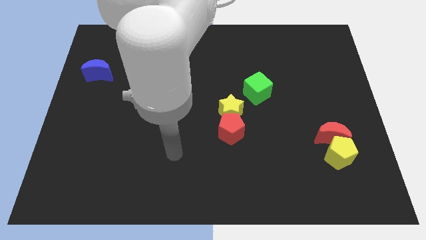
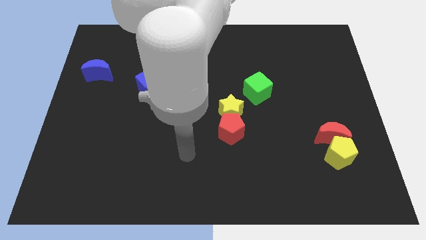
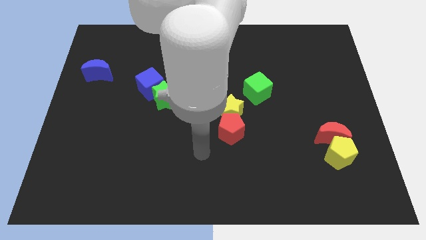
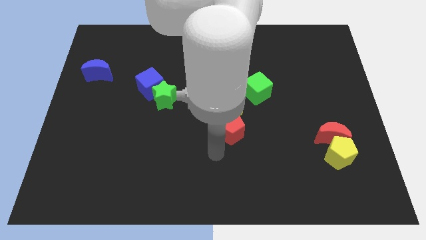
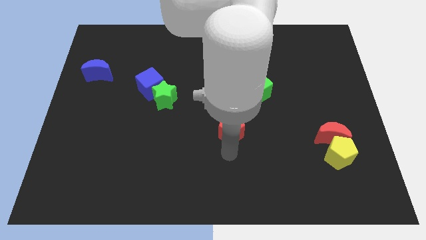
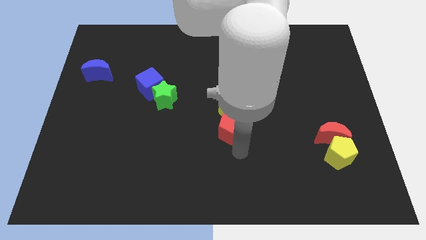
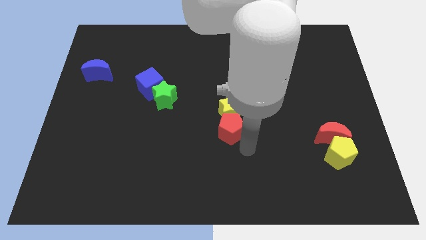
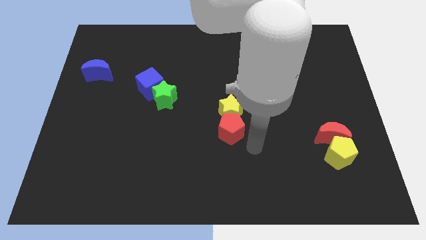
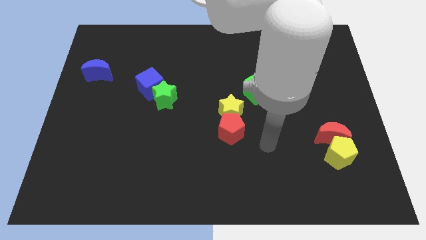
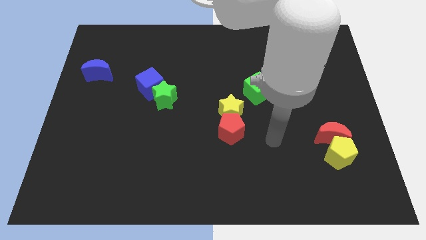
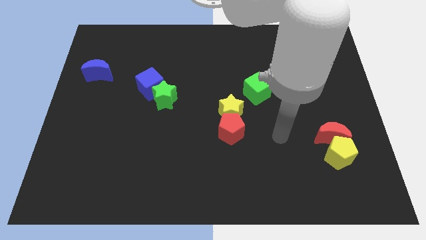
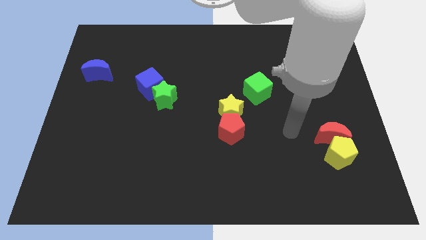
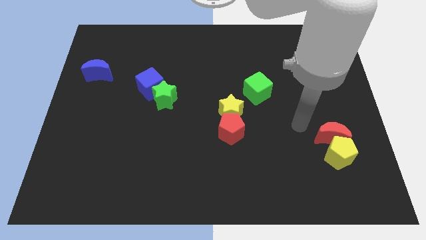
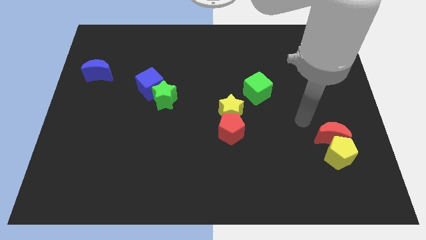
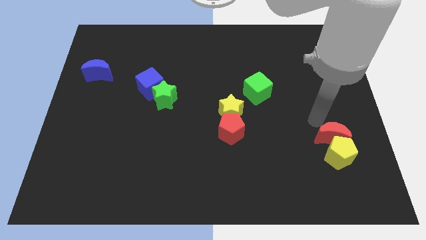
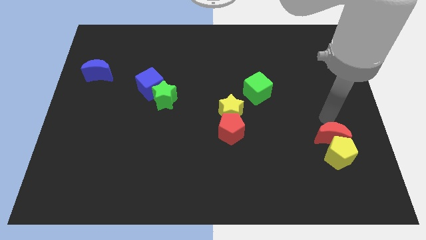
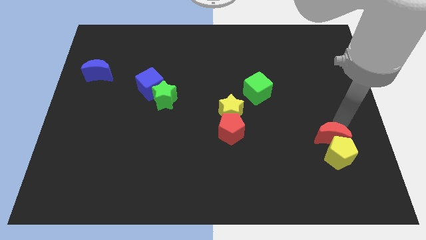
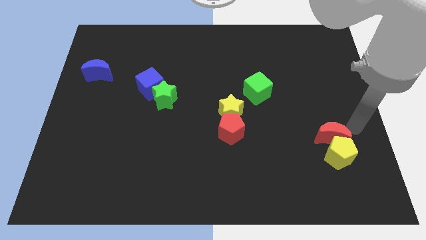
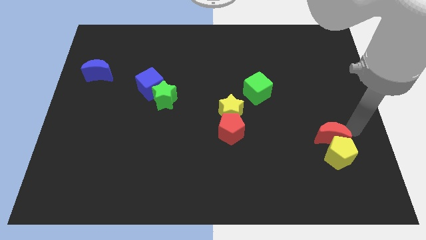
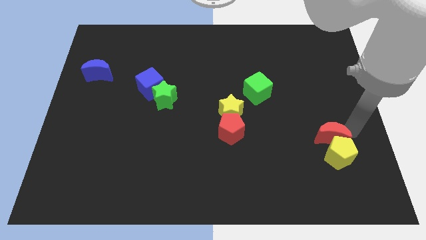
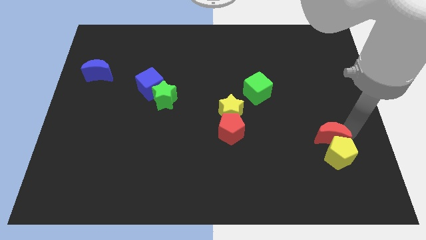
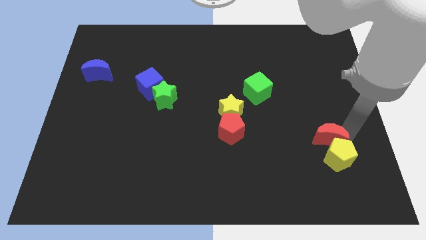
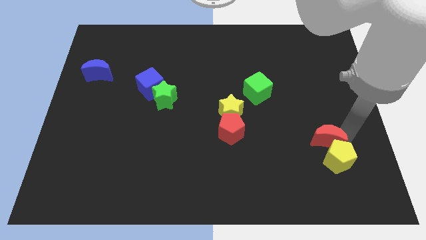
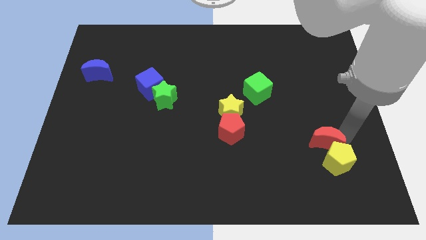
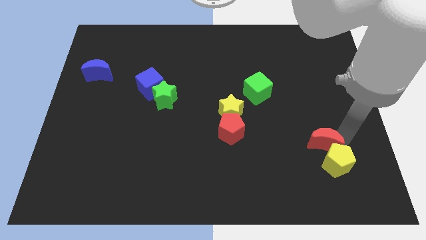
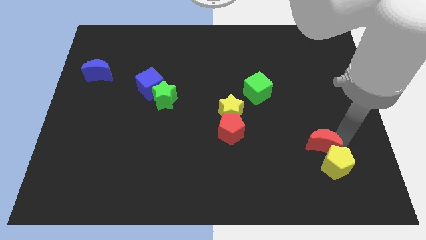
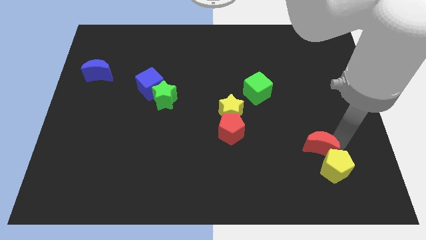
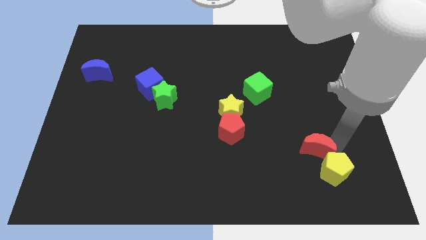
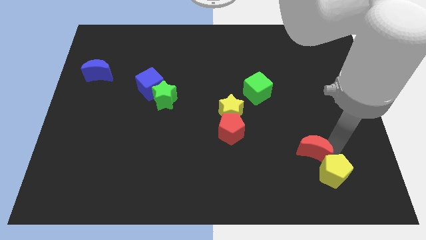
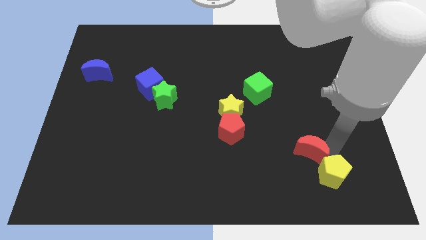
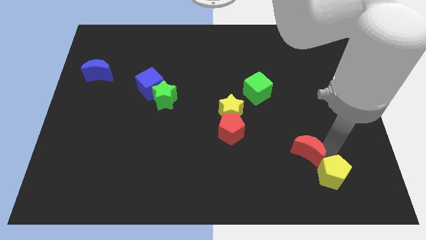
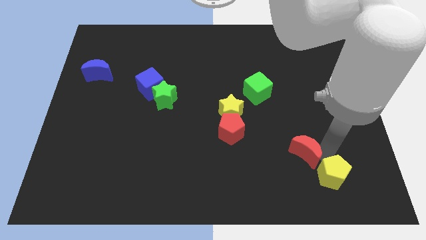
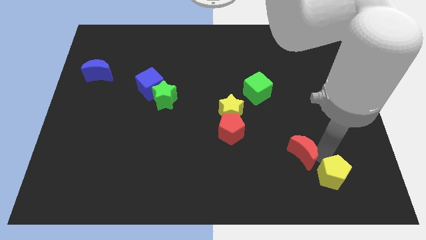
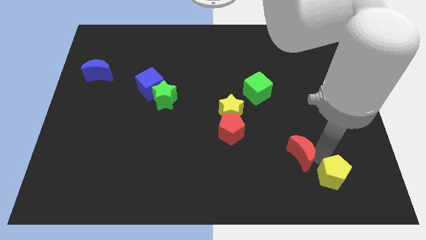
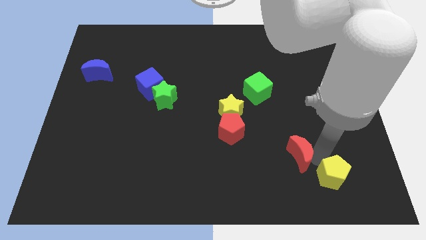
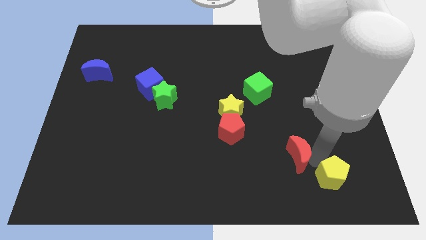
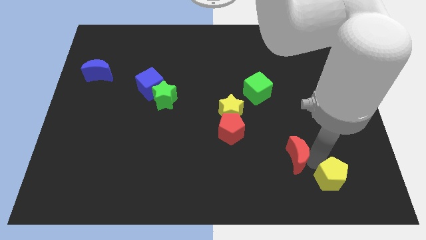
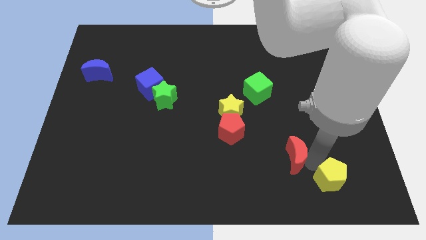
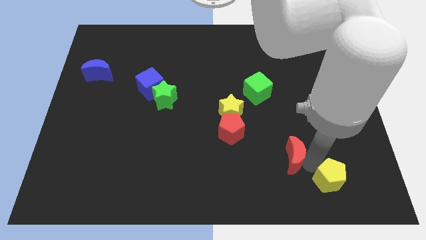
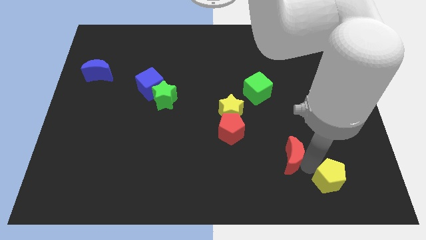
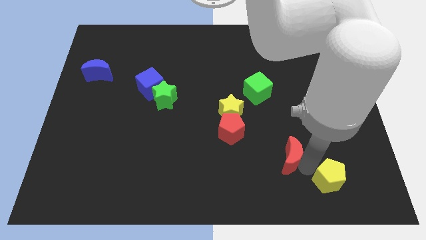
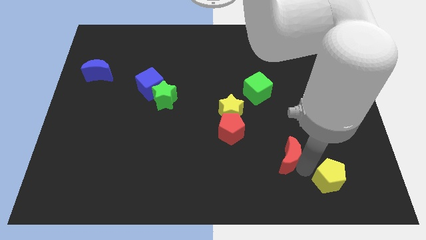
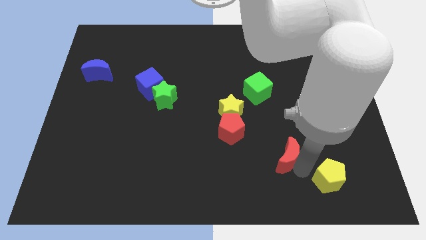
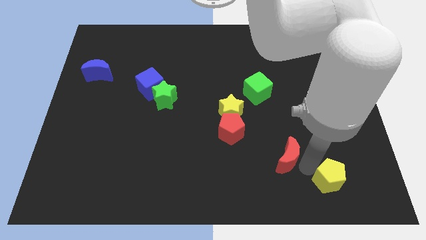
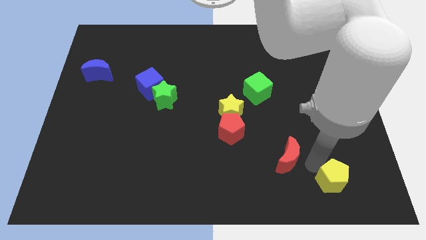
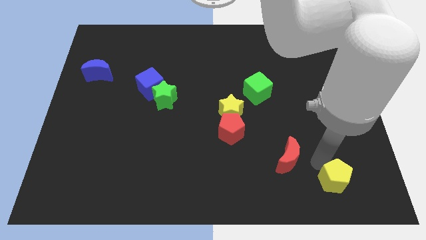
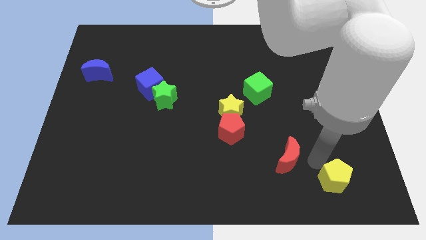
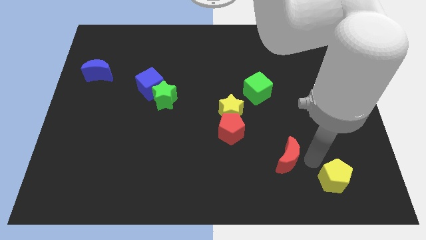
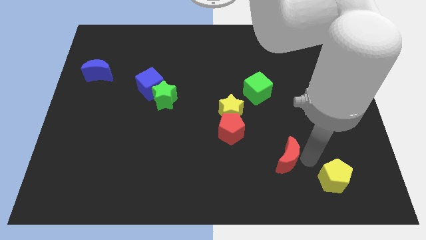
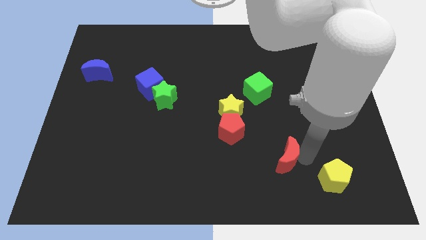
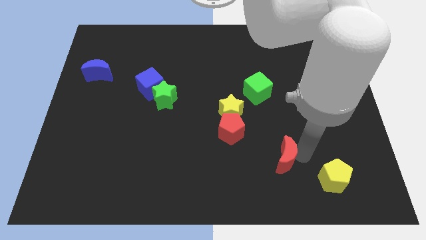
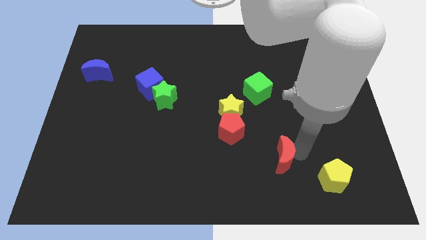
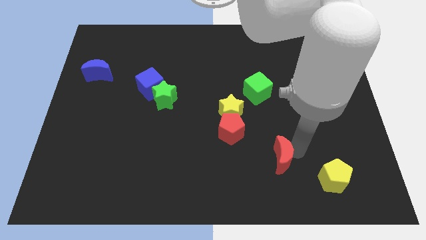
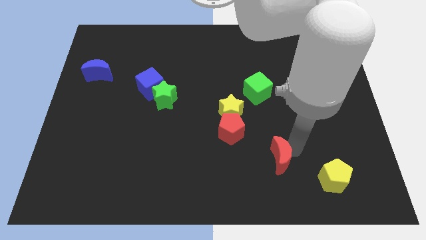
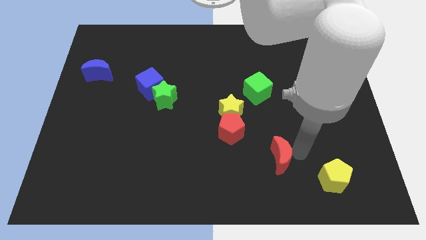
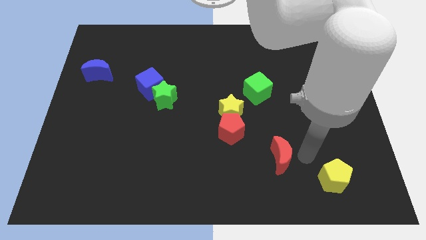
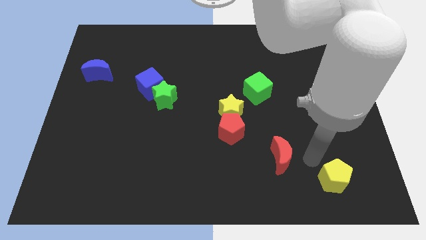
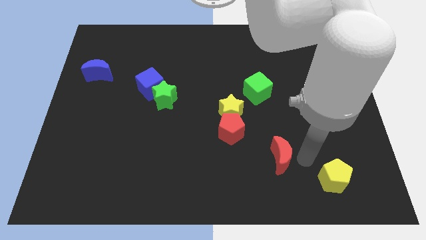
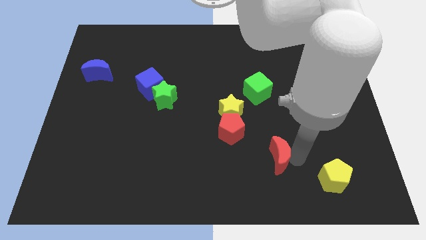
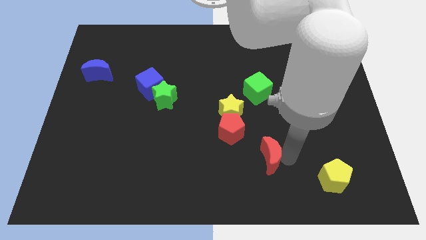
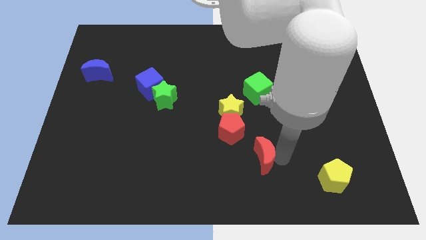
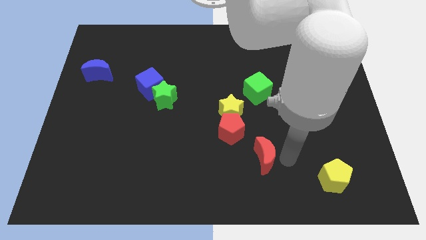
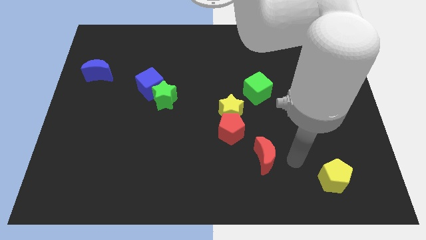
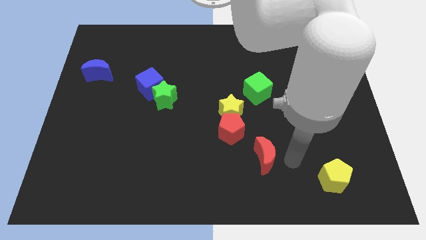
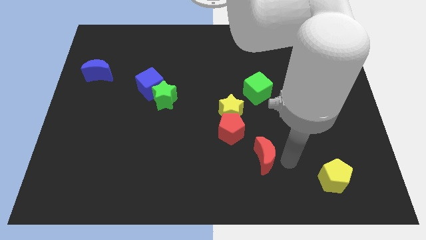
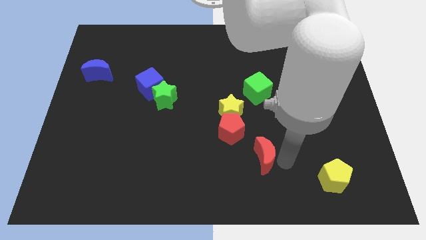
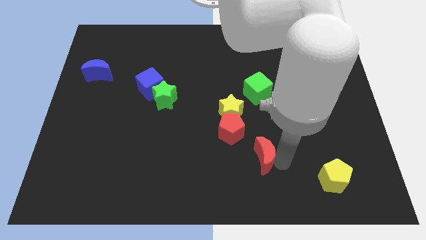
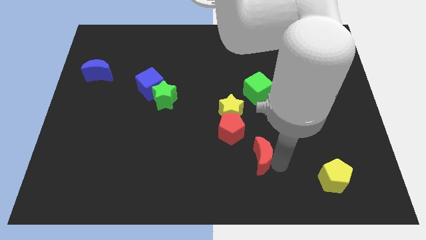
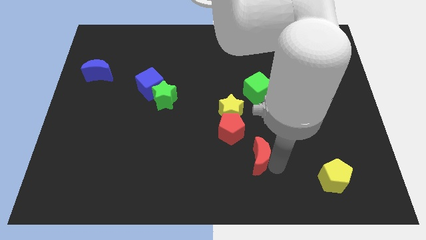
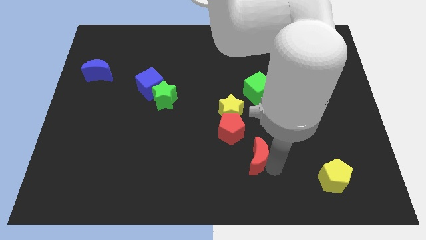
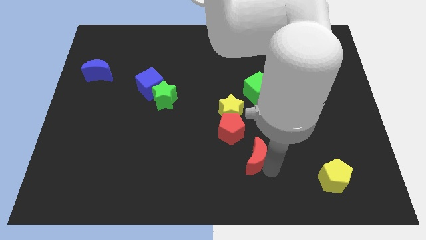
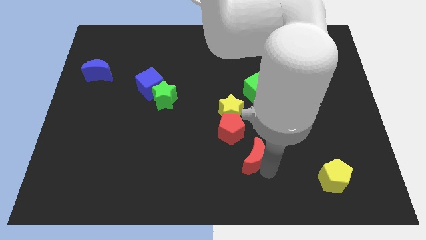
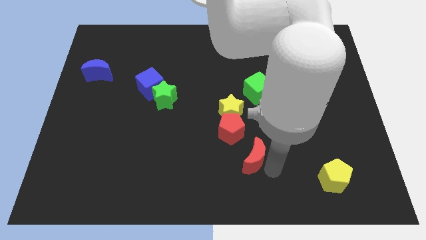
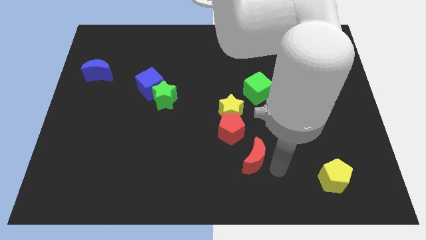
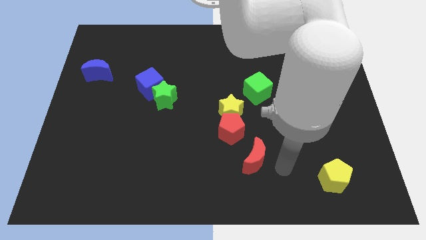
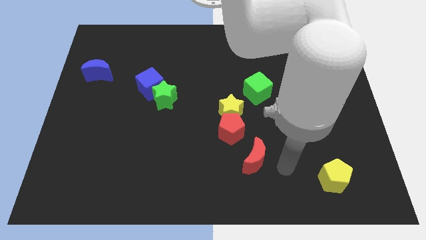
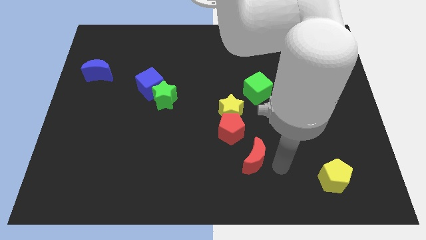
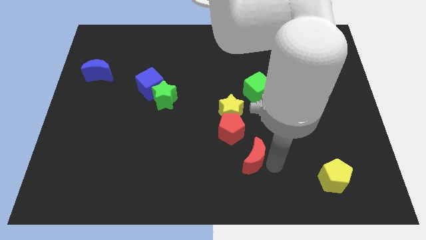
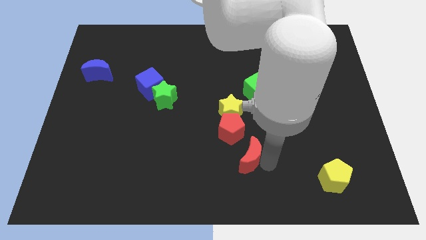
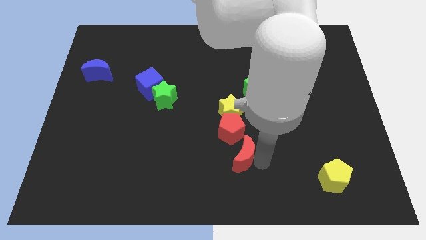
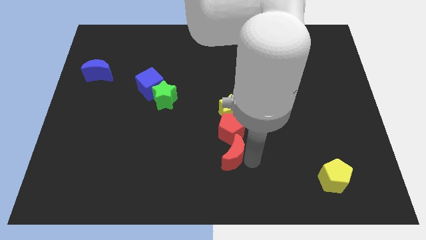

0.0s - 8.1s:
push the red moon to the left

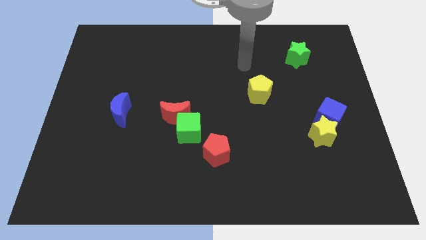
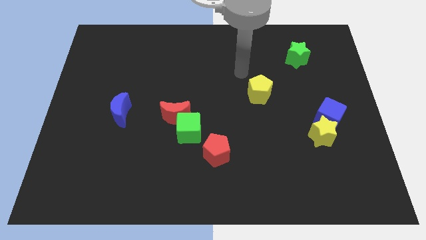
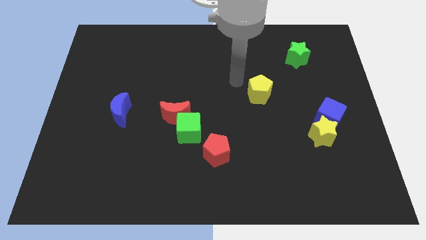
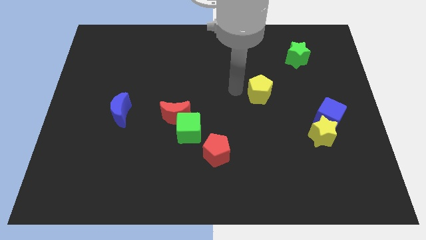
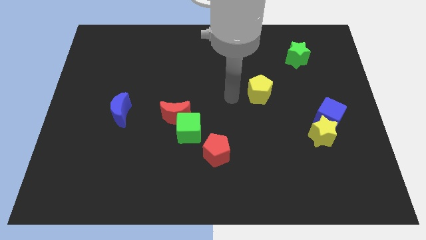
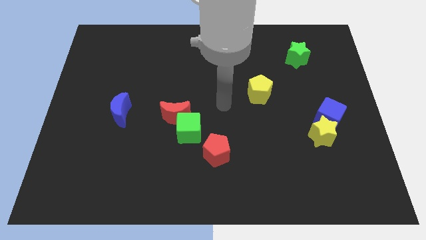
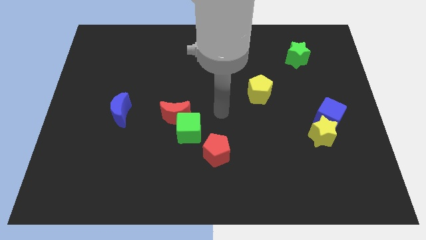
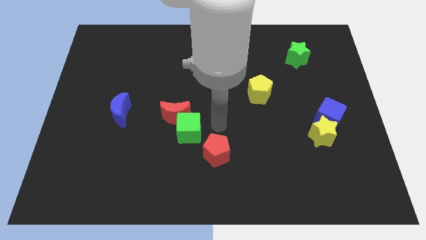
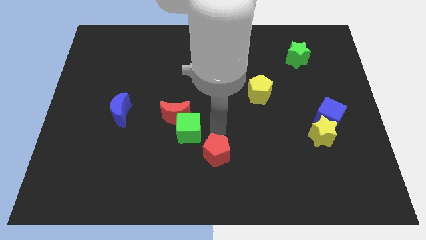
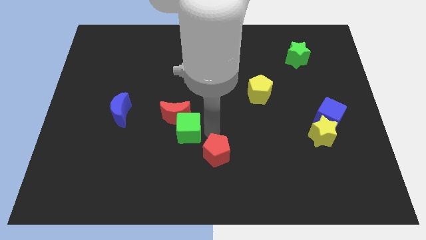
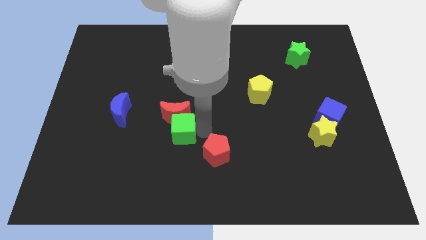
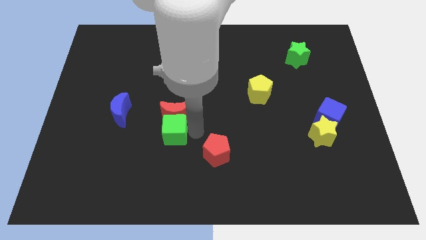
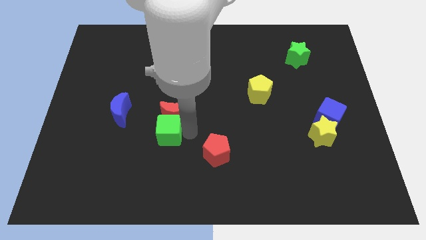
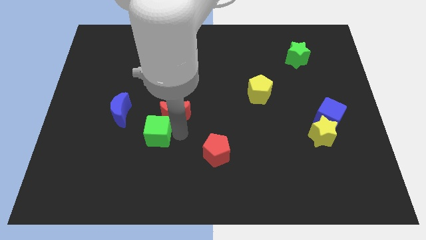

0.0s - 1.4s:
slide the green cube a bit to the left
